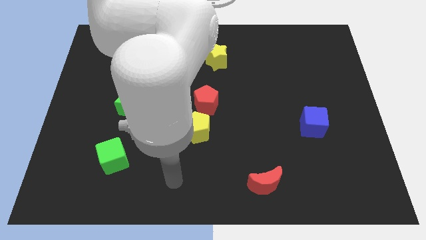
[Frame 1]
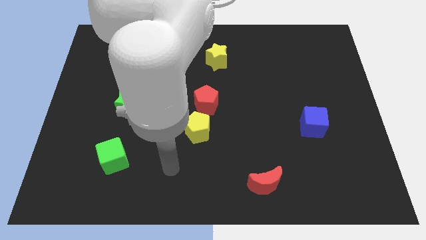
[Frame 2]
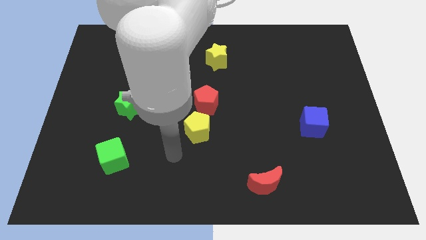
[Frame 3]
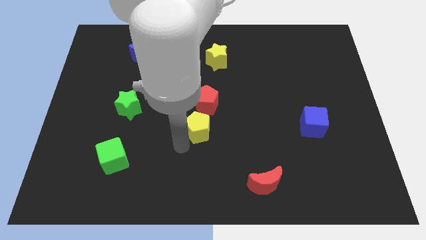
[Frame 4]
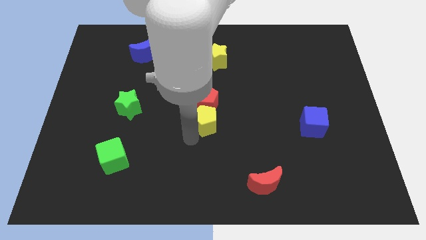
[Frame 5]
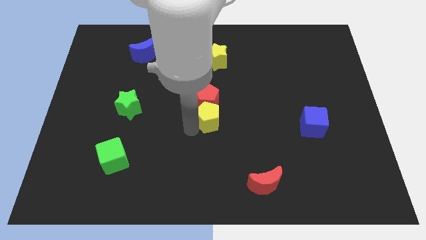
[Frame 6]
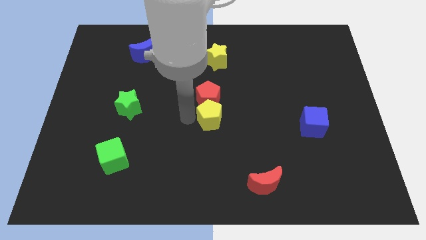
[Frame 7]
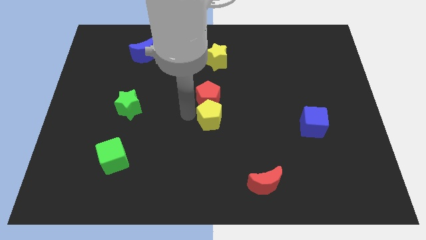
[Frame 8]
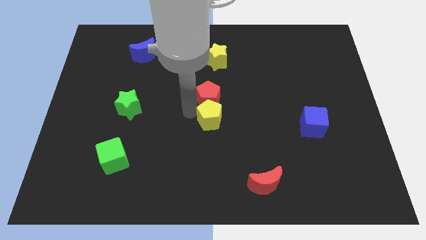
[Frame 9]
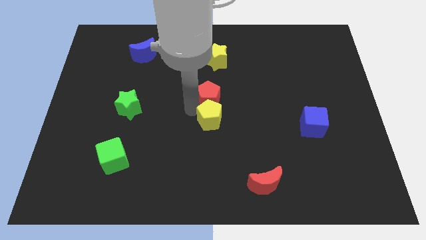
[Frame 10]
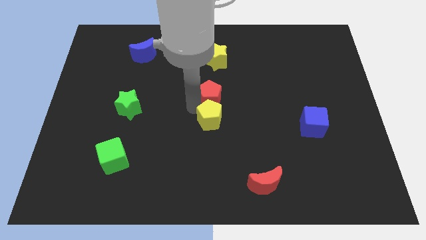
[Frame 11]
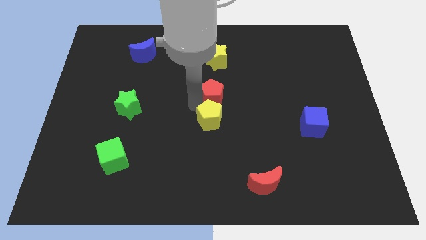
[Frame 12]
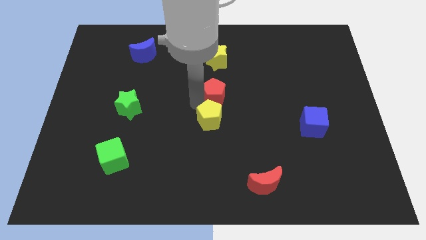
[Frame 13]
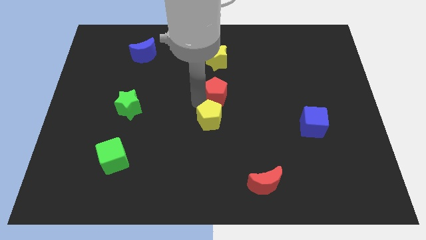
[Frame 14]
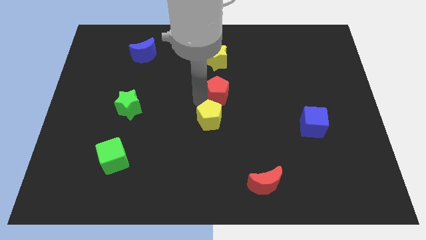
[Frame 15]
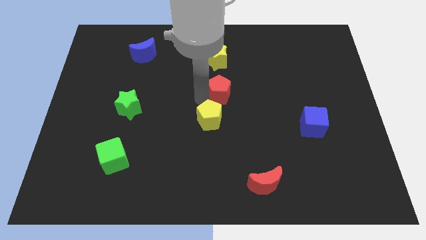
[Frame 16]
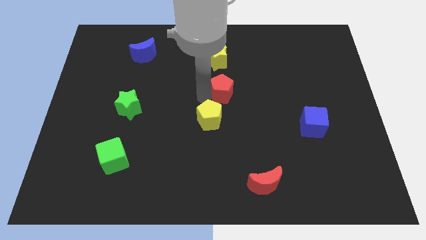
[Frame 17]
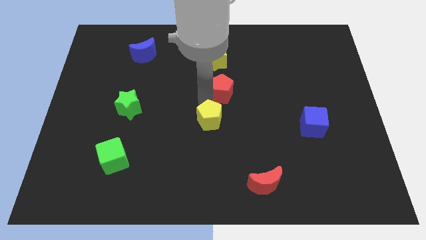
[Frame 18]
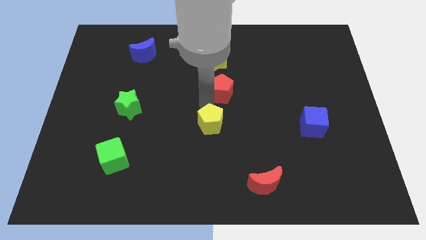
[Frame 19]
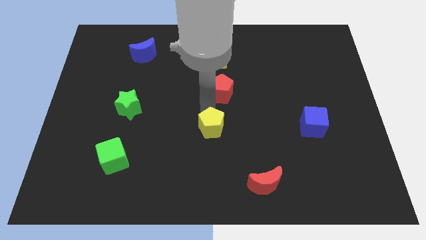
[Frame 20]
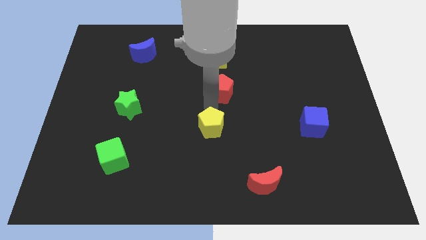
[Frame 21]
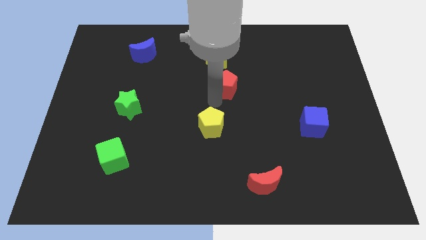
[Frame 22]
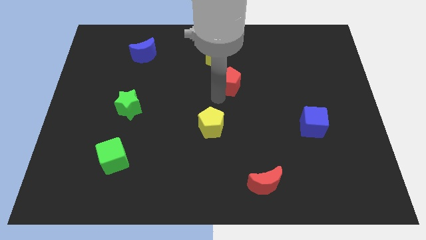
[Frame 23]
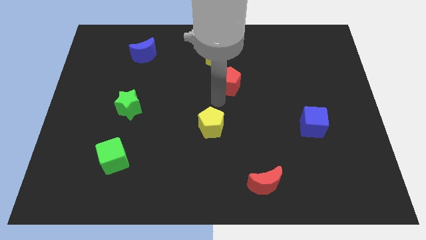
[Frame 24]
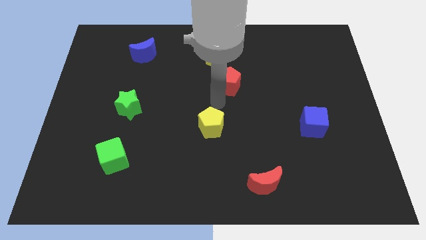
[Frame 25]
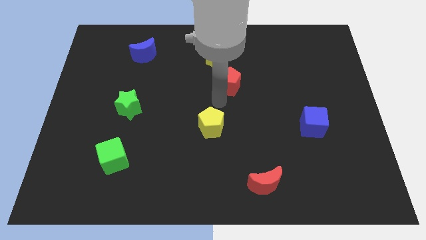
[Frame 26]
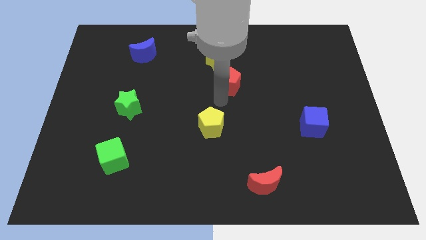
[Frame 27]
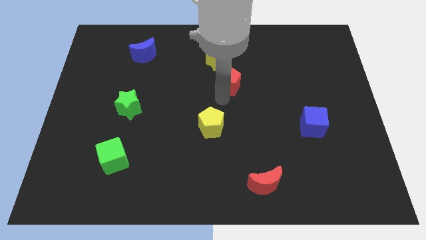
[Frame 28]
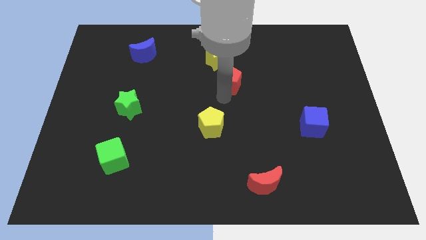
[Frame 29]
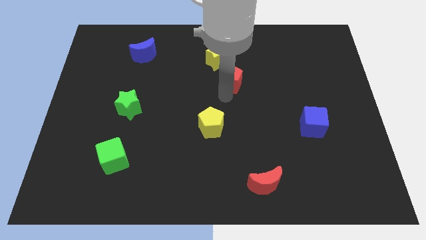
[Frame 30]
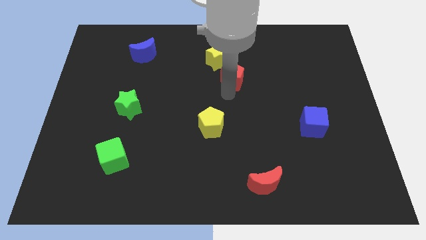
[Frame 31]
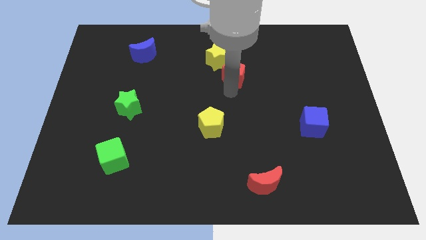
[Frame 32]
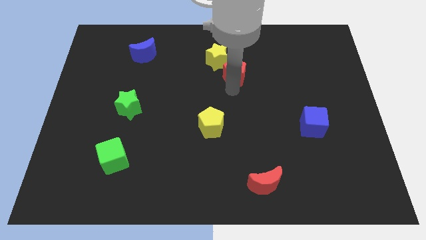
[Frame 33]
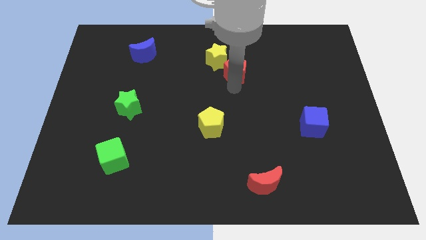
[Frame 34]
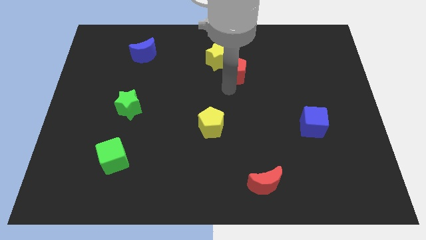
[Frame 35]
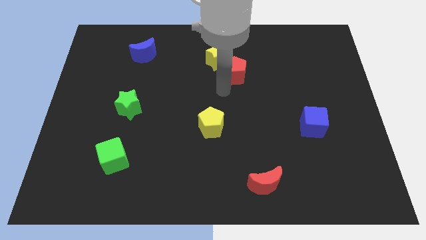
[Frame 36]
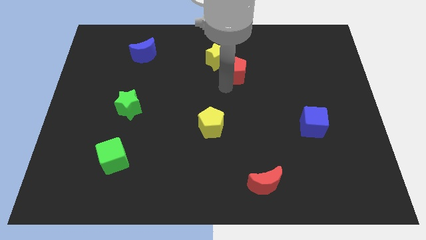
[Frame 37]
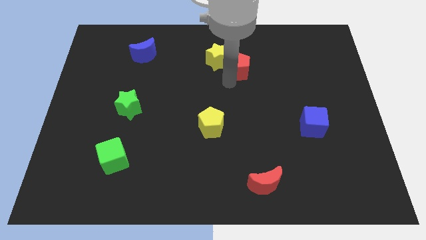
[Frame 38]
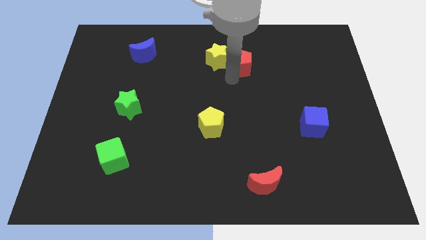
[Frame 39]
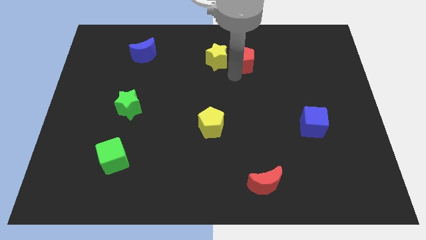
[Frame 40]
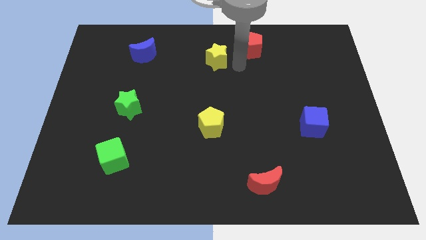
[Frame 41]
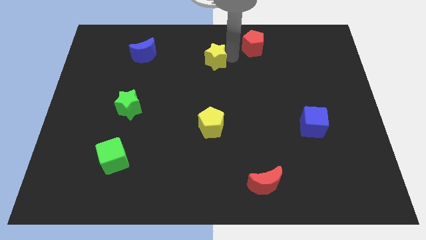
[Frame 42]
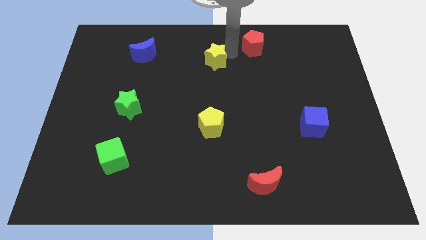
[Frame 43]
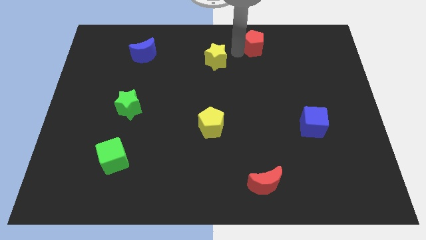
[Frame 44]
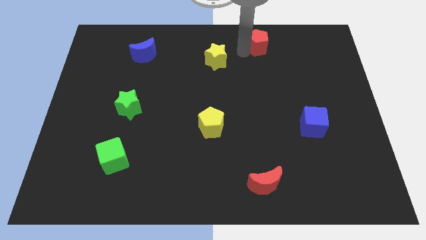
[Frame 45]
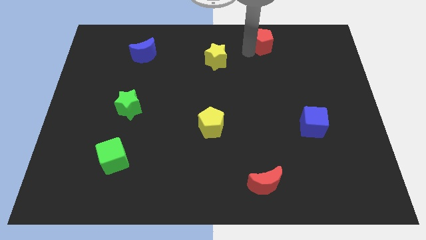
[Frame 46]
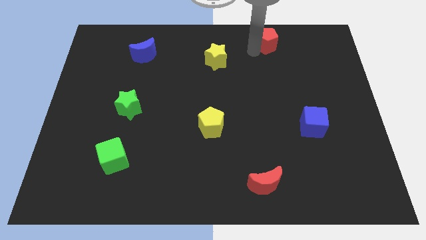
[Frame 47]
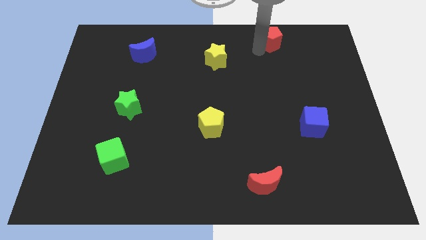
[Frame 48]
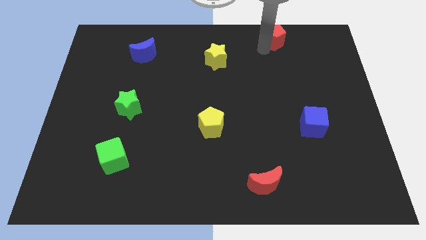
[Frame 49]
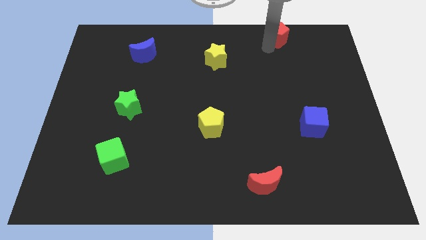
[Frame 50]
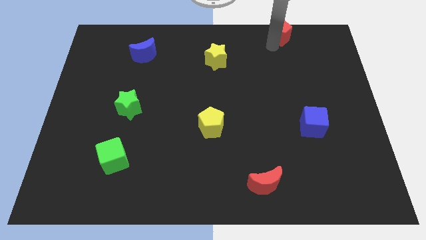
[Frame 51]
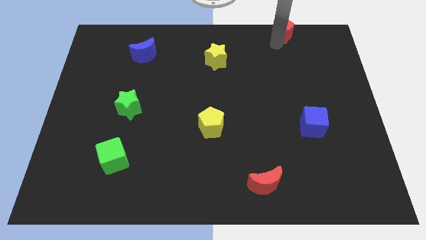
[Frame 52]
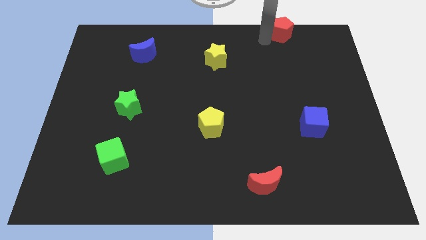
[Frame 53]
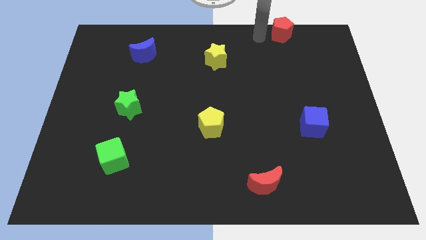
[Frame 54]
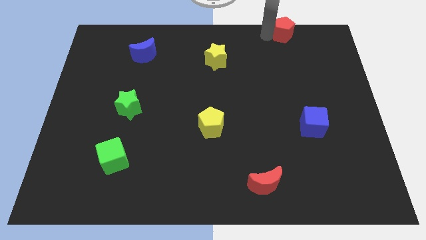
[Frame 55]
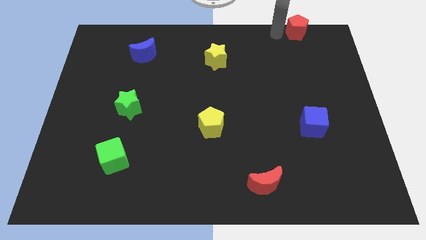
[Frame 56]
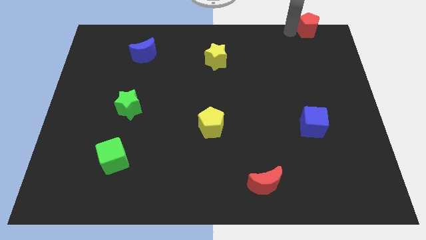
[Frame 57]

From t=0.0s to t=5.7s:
put the red pentagon to the upper right corner
